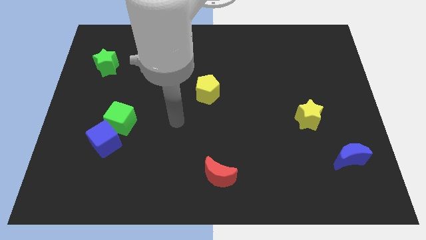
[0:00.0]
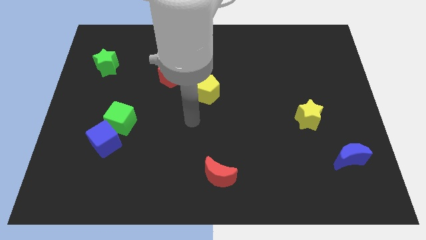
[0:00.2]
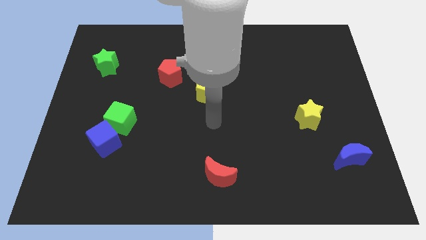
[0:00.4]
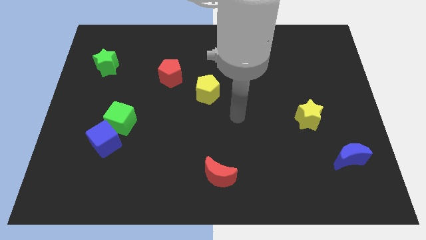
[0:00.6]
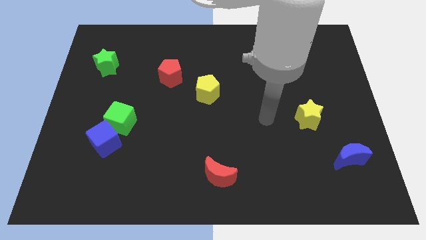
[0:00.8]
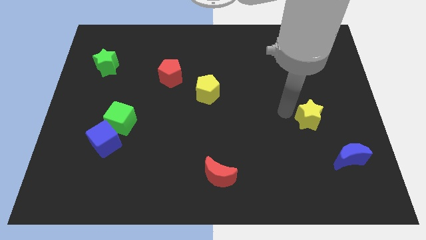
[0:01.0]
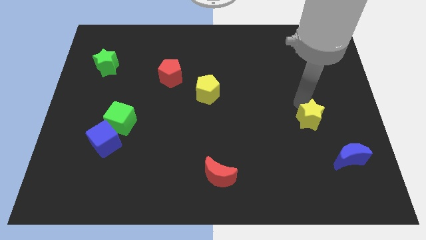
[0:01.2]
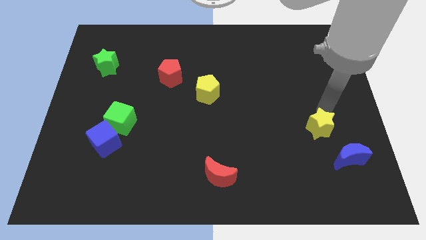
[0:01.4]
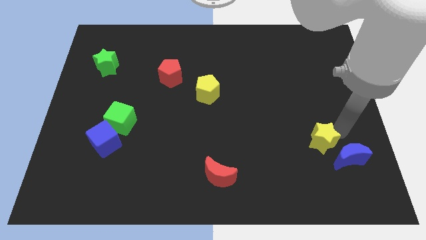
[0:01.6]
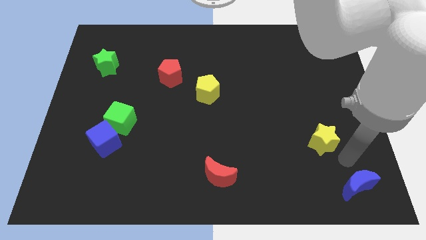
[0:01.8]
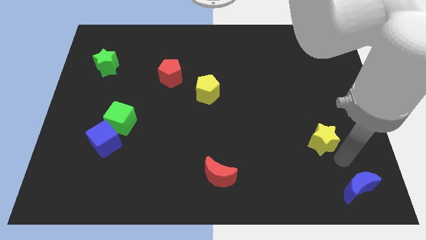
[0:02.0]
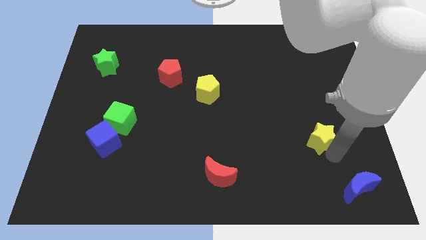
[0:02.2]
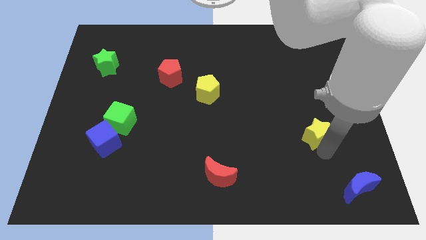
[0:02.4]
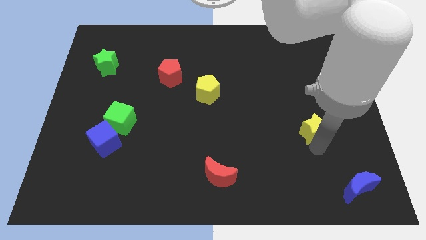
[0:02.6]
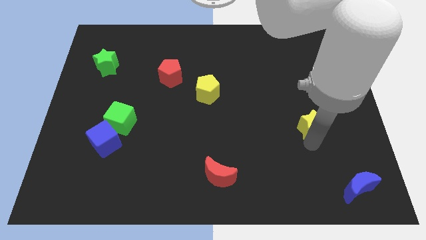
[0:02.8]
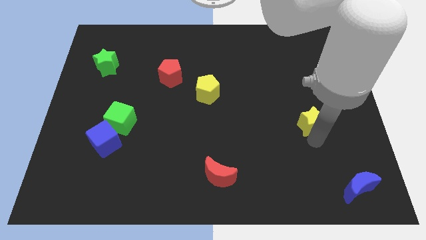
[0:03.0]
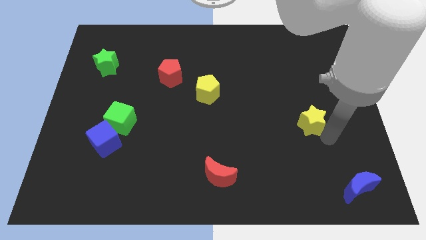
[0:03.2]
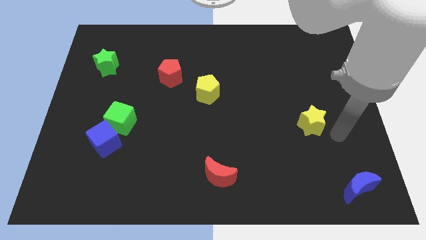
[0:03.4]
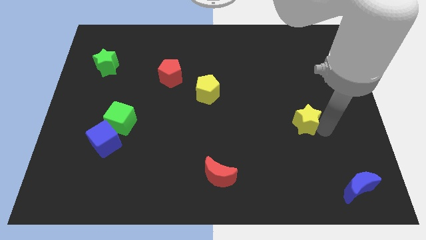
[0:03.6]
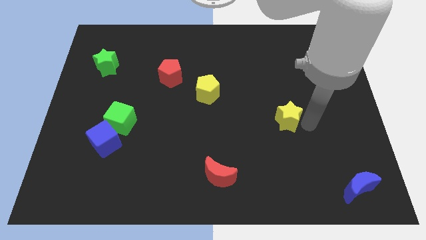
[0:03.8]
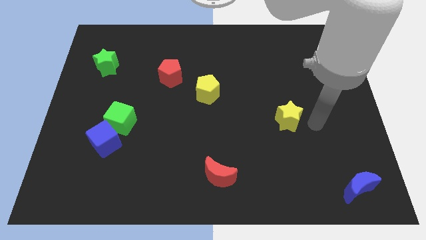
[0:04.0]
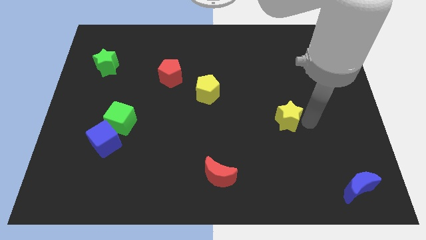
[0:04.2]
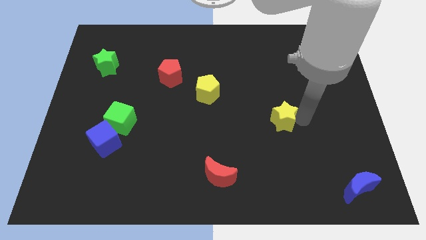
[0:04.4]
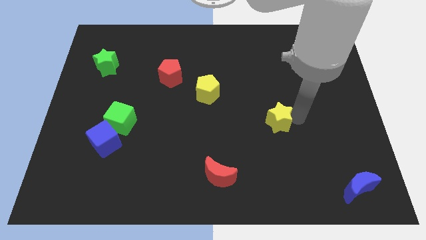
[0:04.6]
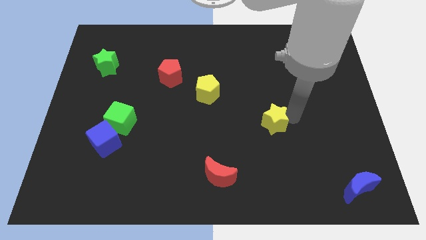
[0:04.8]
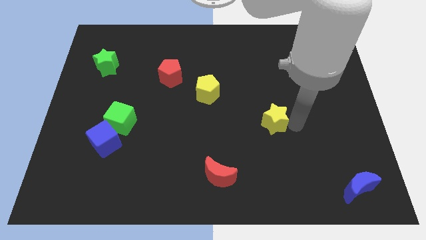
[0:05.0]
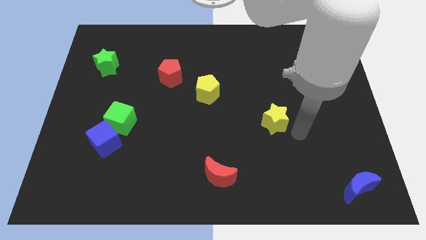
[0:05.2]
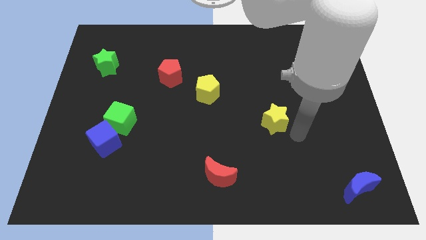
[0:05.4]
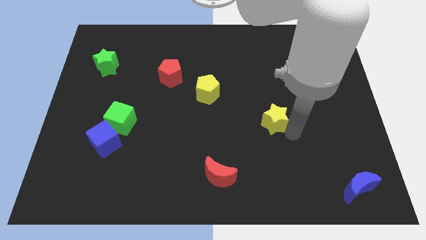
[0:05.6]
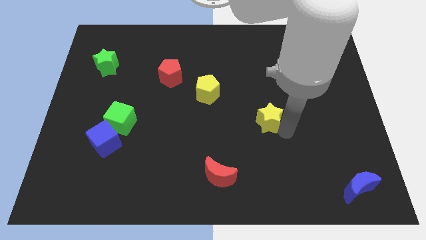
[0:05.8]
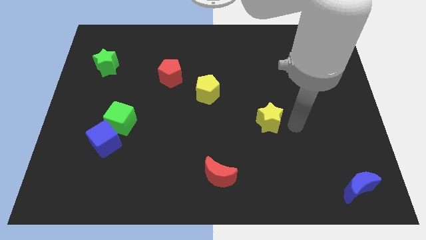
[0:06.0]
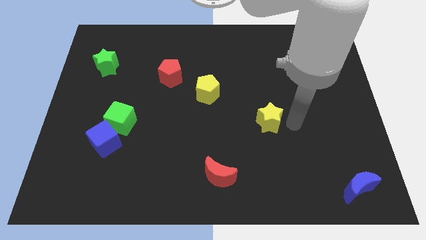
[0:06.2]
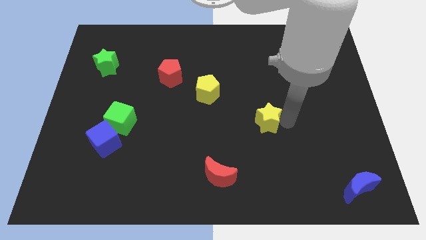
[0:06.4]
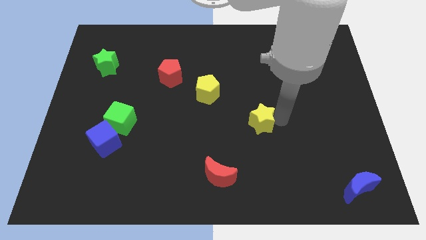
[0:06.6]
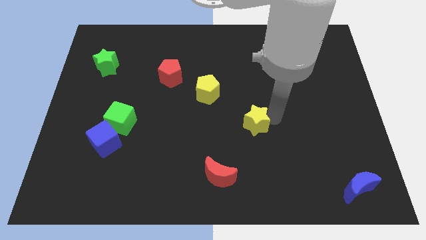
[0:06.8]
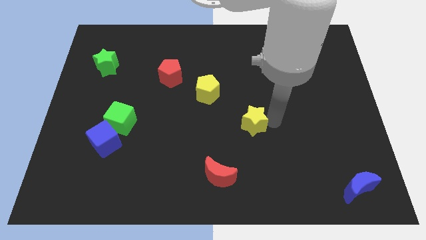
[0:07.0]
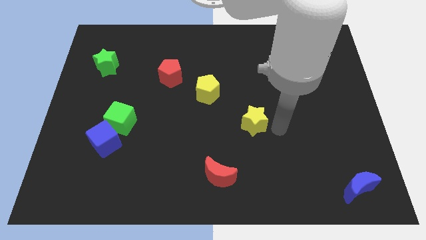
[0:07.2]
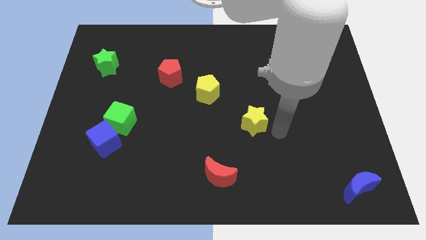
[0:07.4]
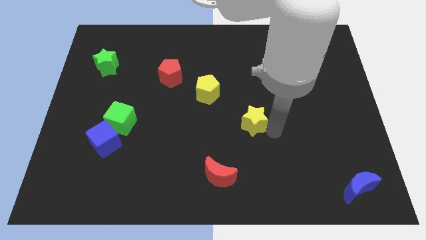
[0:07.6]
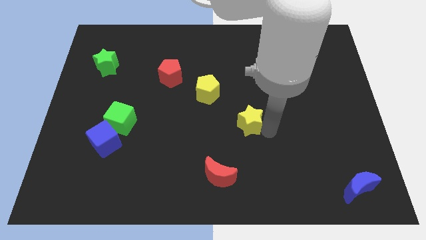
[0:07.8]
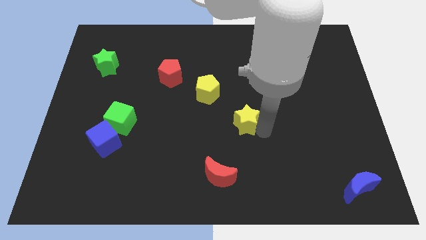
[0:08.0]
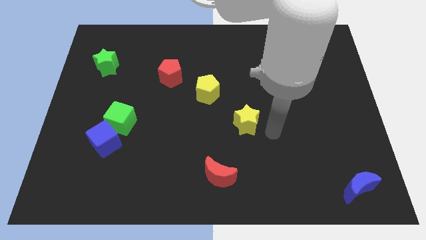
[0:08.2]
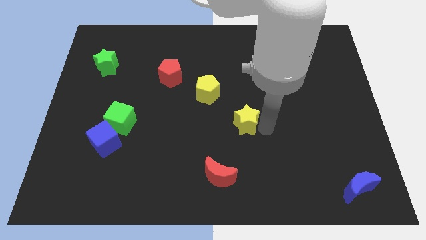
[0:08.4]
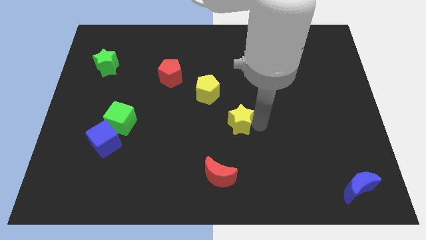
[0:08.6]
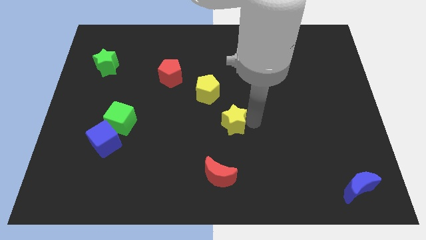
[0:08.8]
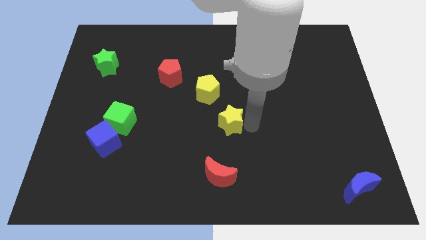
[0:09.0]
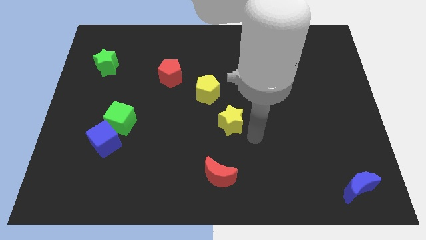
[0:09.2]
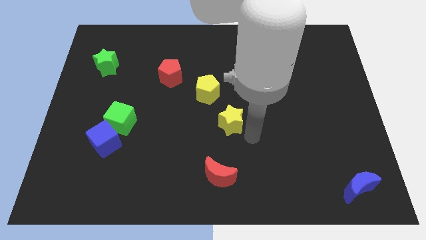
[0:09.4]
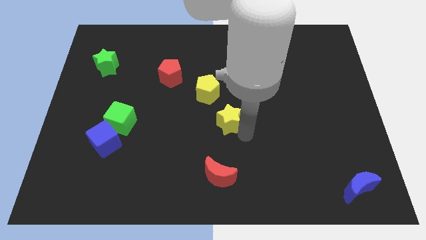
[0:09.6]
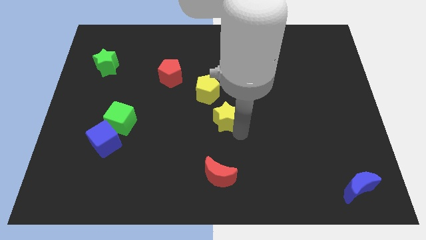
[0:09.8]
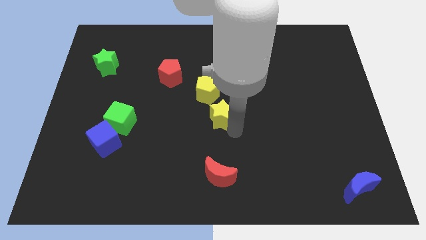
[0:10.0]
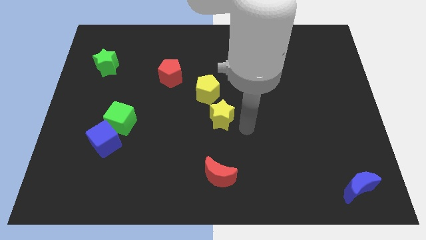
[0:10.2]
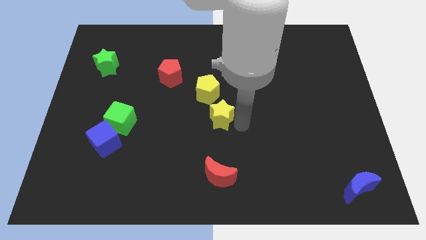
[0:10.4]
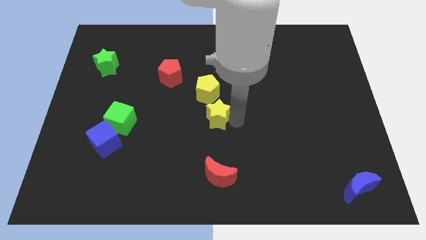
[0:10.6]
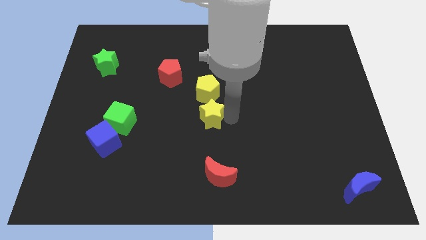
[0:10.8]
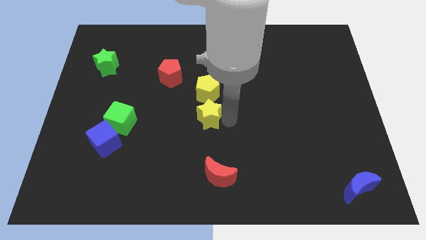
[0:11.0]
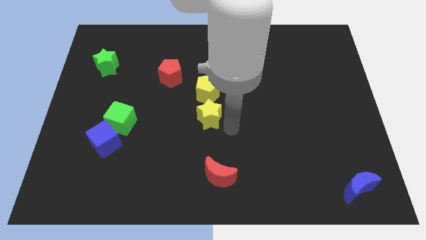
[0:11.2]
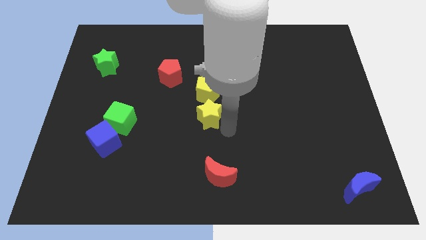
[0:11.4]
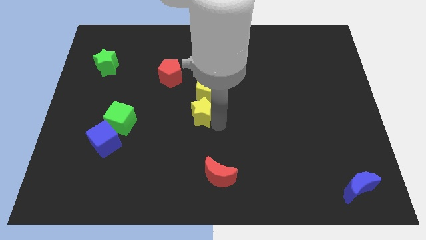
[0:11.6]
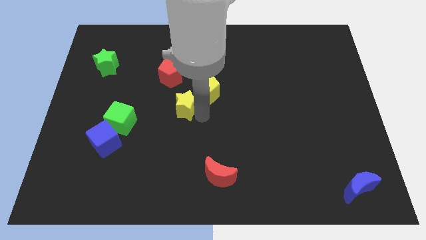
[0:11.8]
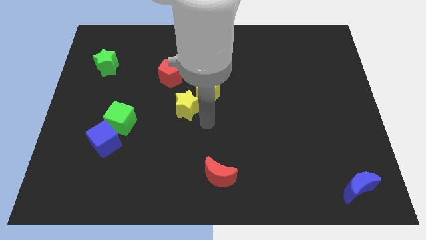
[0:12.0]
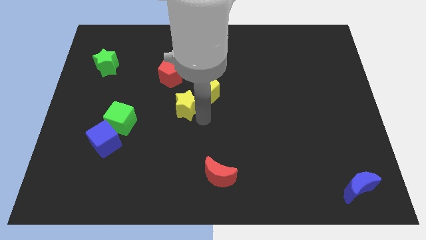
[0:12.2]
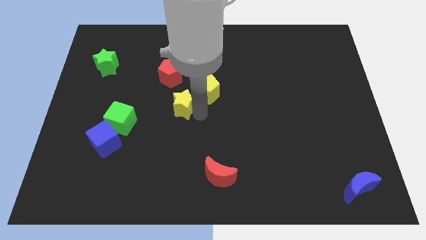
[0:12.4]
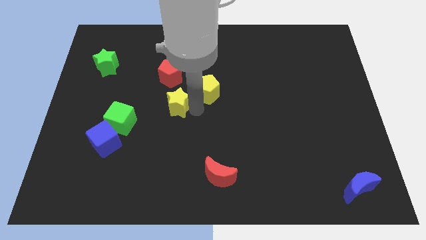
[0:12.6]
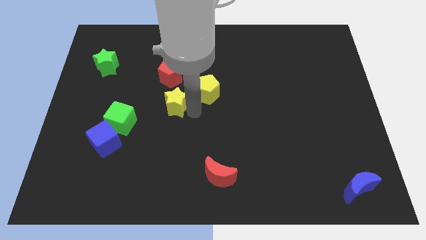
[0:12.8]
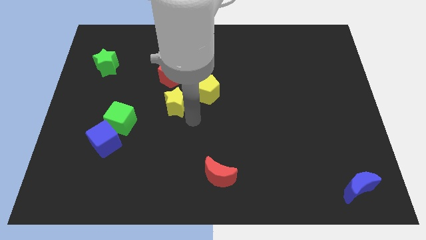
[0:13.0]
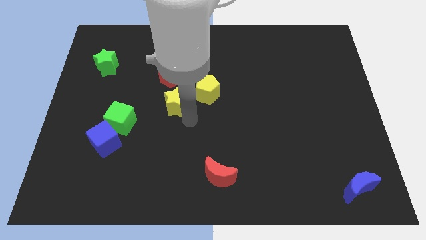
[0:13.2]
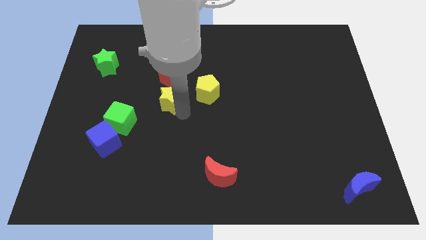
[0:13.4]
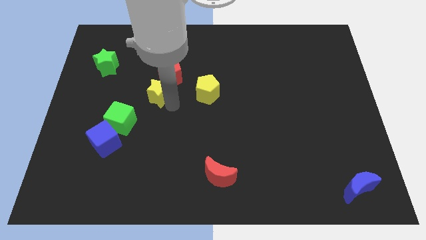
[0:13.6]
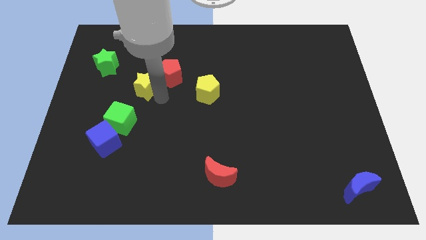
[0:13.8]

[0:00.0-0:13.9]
put the yellow star to the left of the red pentagon
